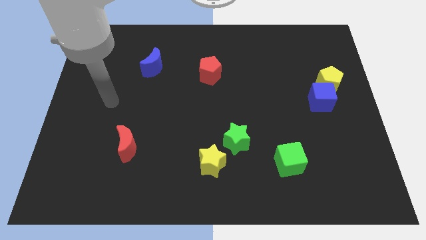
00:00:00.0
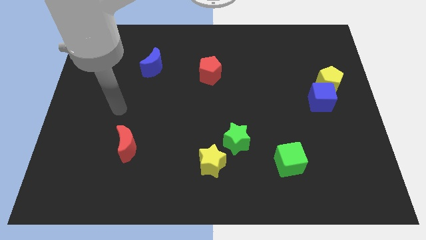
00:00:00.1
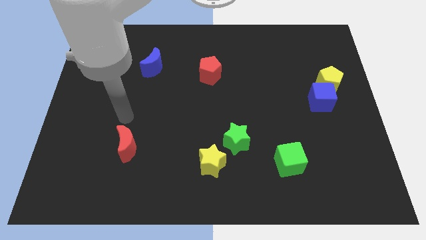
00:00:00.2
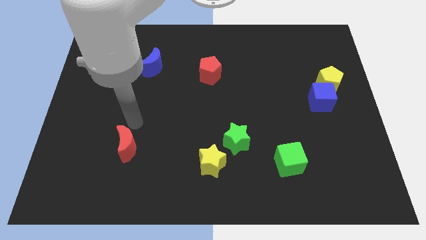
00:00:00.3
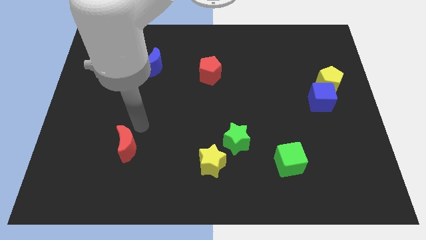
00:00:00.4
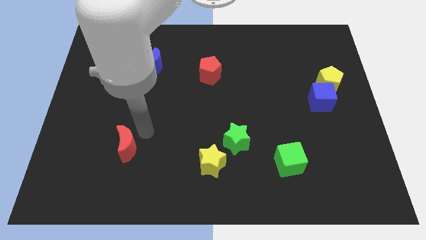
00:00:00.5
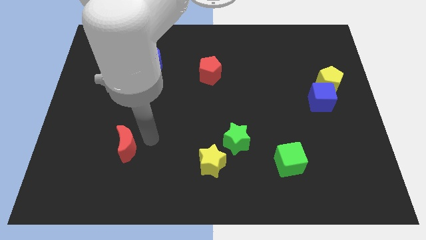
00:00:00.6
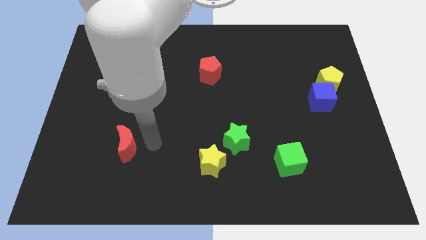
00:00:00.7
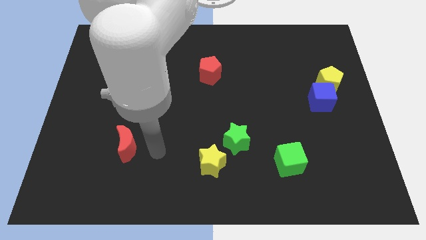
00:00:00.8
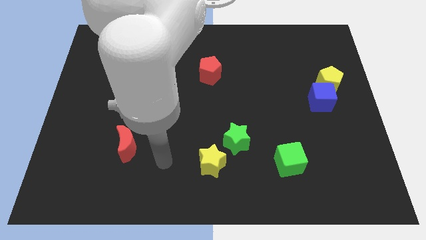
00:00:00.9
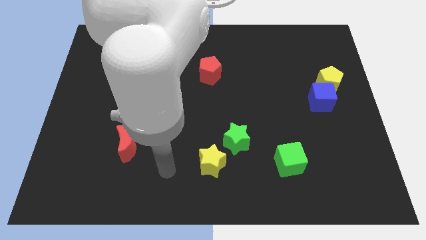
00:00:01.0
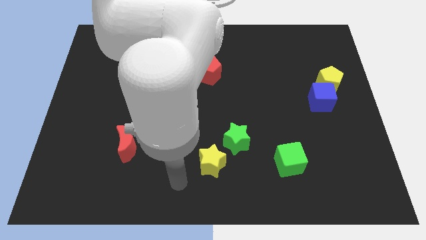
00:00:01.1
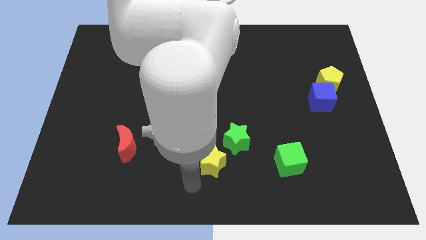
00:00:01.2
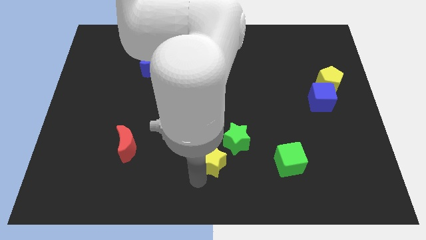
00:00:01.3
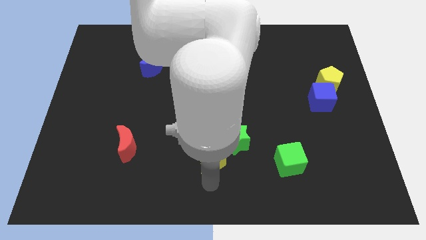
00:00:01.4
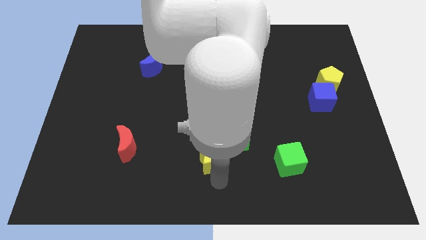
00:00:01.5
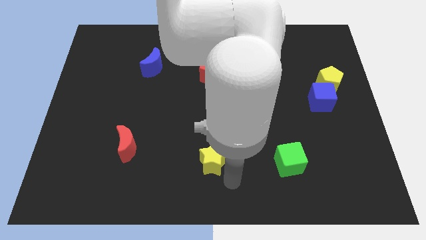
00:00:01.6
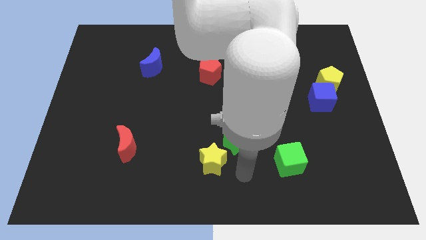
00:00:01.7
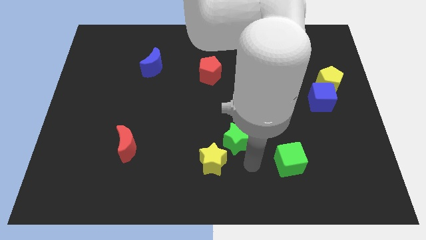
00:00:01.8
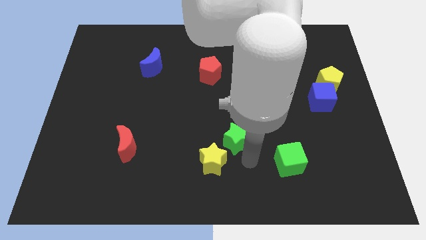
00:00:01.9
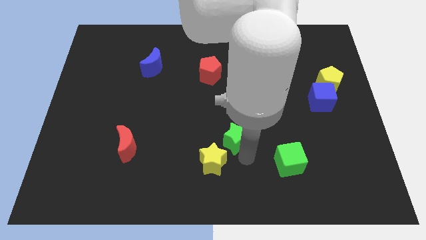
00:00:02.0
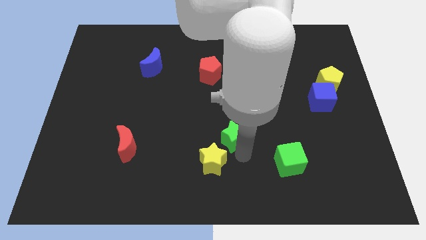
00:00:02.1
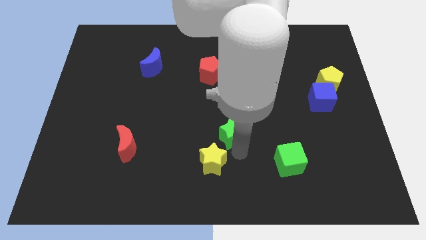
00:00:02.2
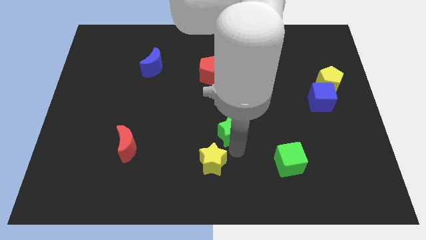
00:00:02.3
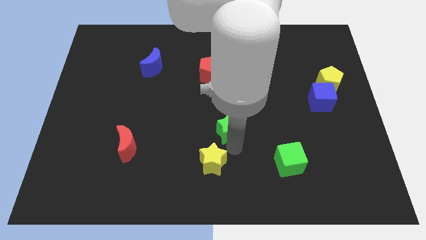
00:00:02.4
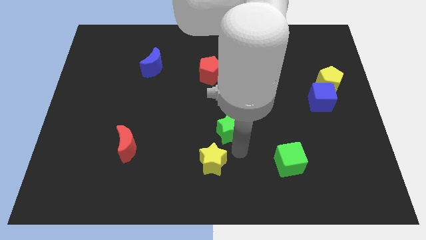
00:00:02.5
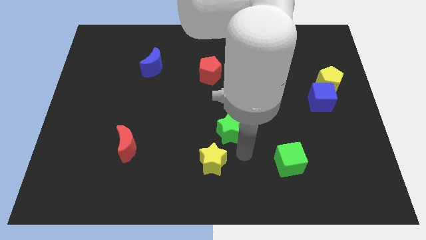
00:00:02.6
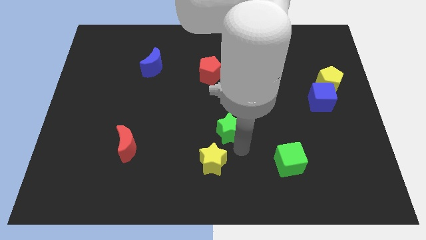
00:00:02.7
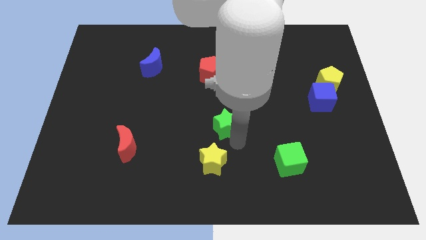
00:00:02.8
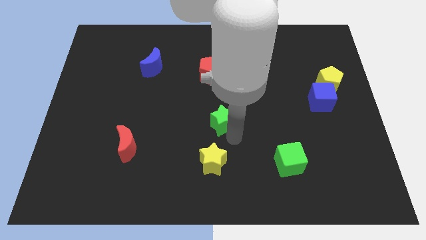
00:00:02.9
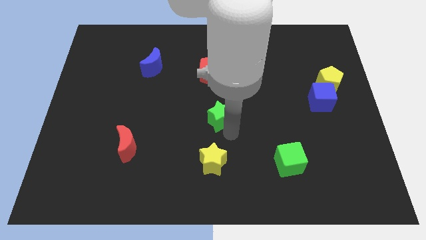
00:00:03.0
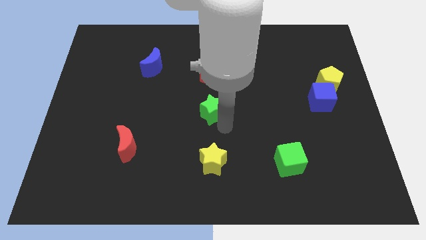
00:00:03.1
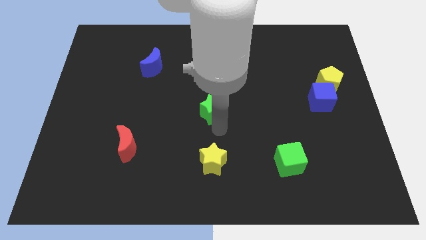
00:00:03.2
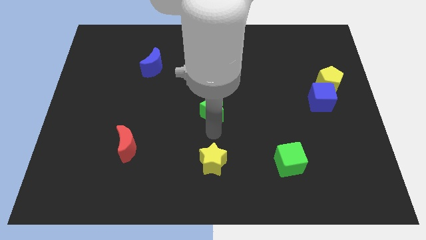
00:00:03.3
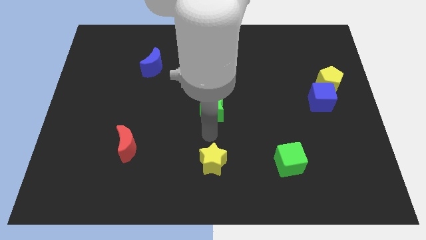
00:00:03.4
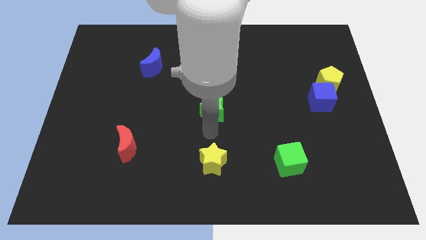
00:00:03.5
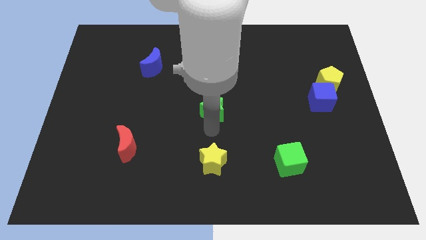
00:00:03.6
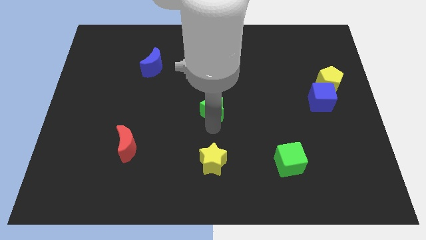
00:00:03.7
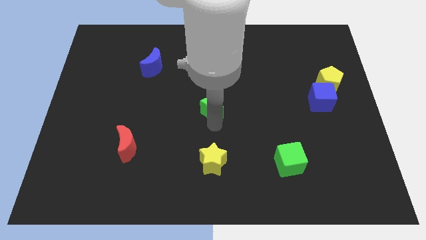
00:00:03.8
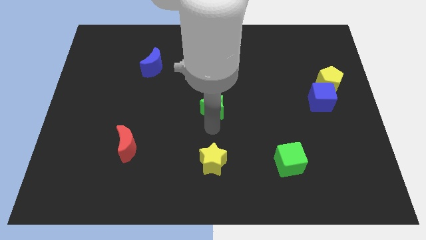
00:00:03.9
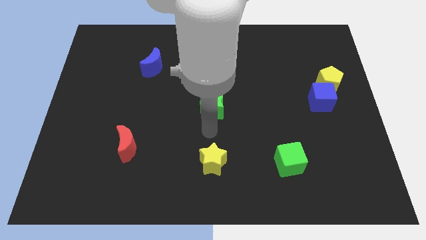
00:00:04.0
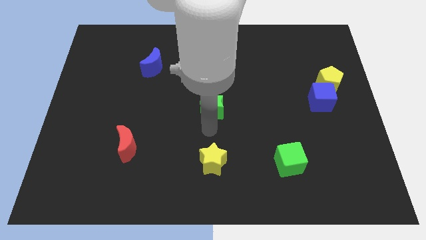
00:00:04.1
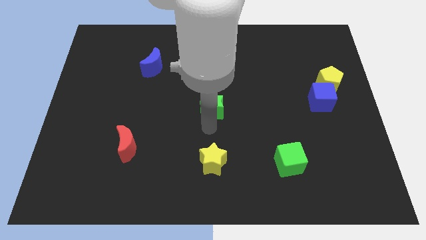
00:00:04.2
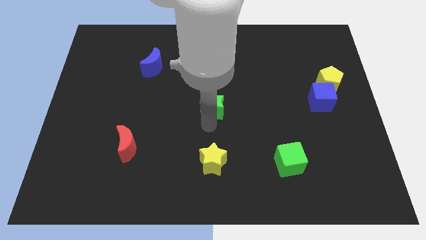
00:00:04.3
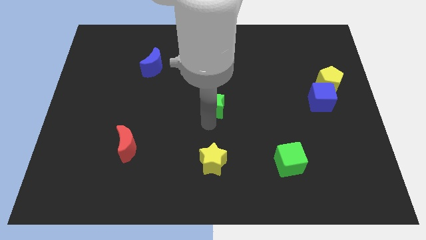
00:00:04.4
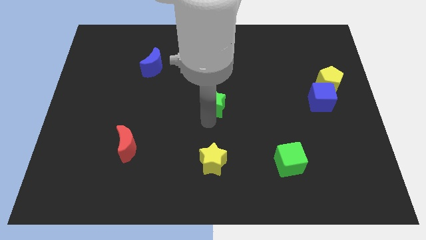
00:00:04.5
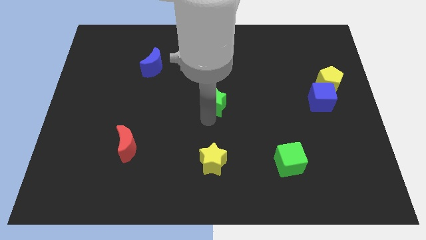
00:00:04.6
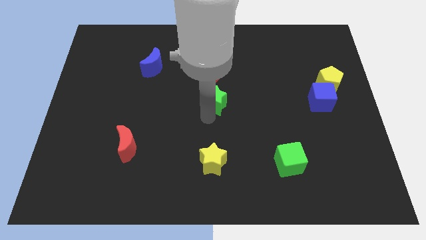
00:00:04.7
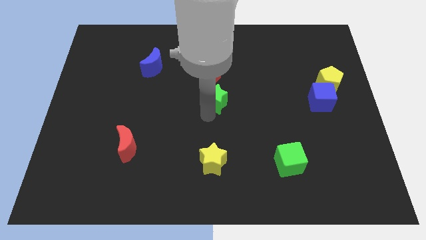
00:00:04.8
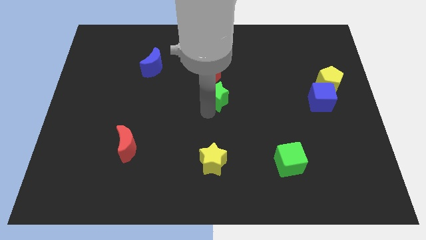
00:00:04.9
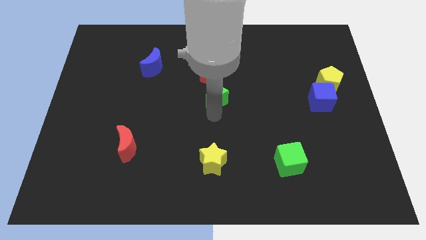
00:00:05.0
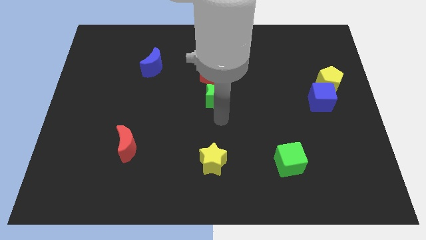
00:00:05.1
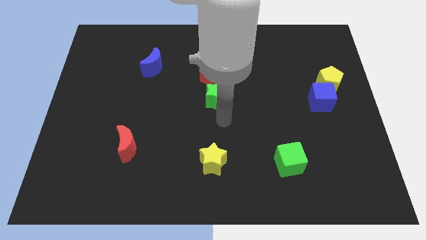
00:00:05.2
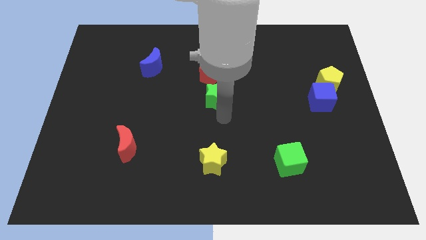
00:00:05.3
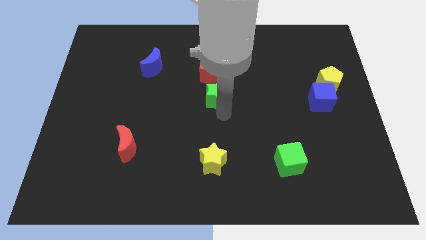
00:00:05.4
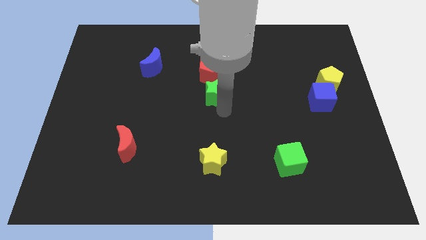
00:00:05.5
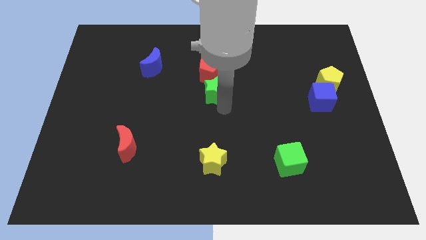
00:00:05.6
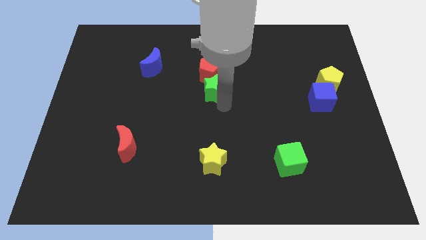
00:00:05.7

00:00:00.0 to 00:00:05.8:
slide the green star to the red pentagon
